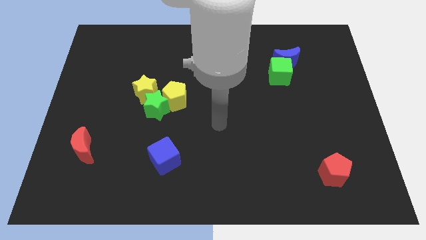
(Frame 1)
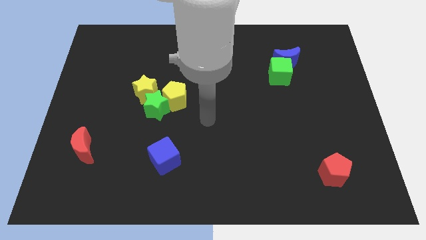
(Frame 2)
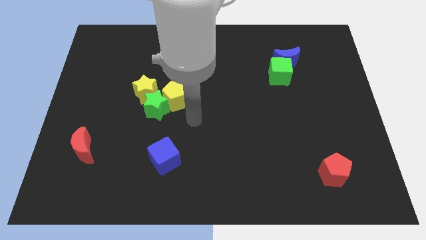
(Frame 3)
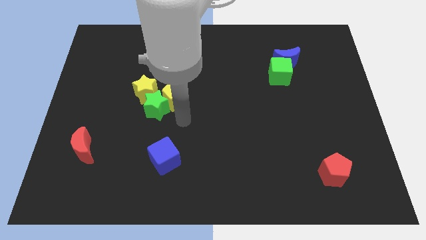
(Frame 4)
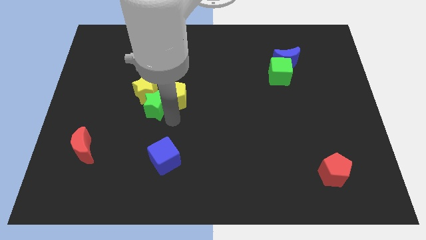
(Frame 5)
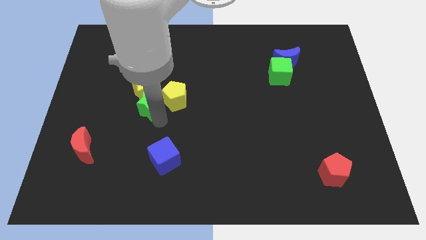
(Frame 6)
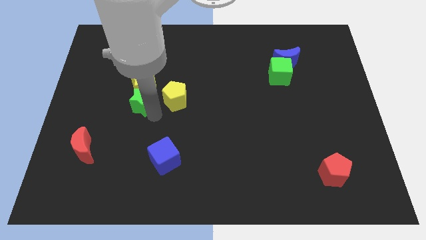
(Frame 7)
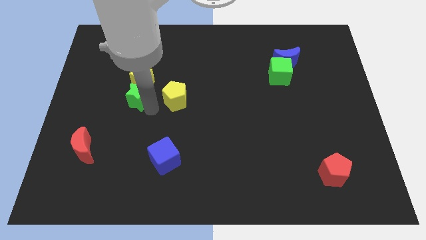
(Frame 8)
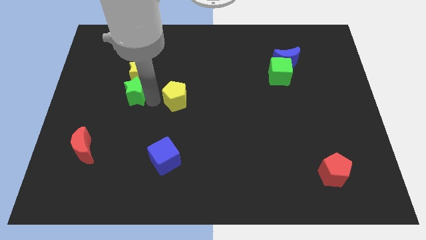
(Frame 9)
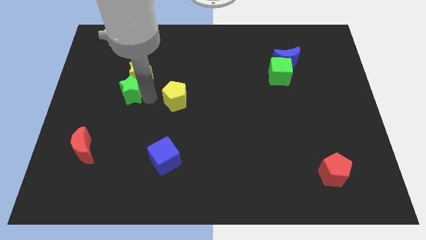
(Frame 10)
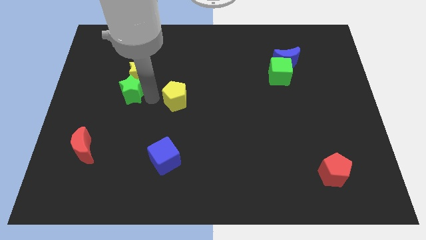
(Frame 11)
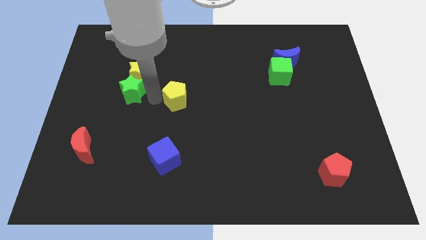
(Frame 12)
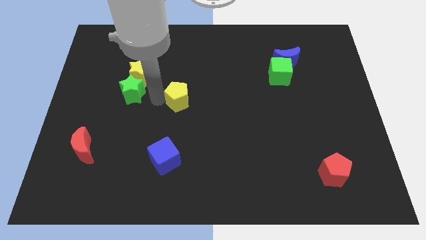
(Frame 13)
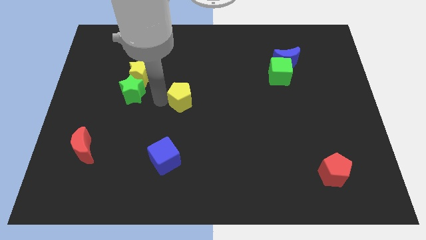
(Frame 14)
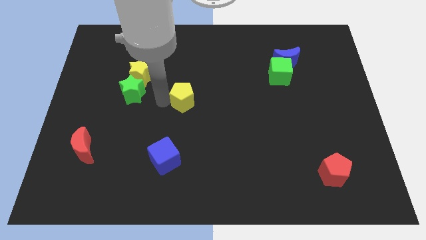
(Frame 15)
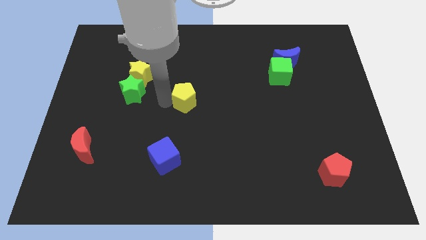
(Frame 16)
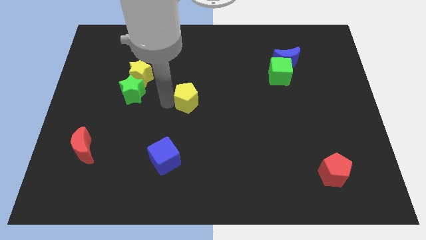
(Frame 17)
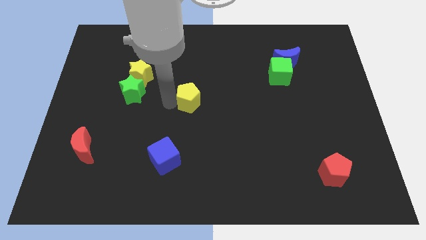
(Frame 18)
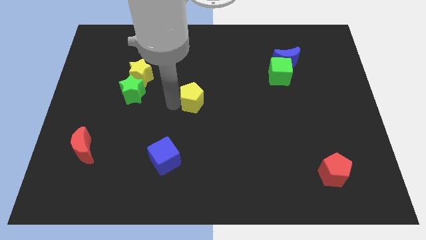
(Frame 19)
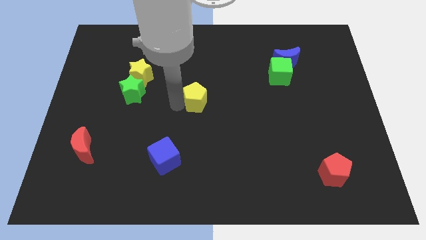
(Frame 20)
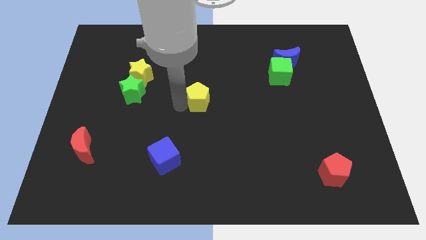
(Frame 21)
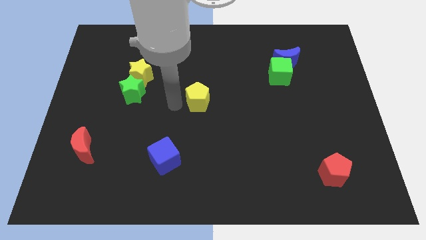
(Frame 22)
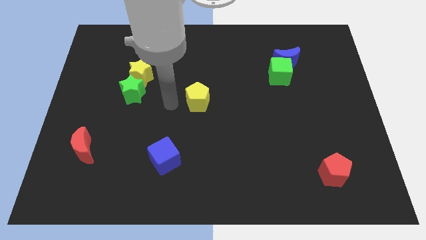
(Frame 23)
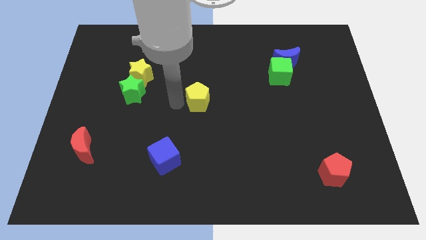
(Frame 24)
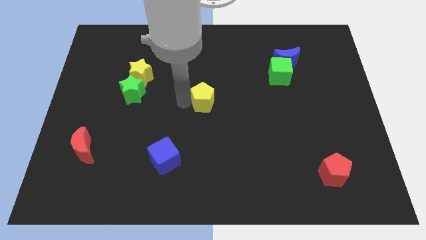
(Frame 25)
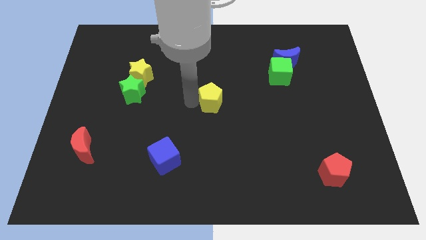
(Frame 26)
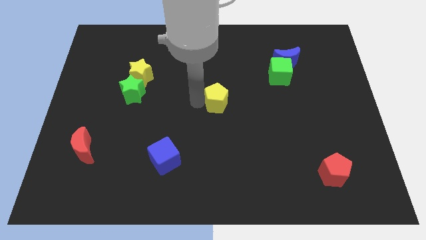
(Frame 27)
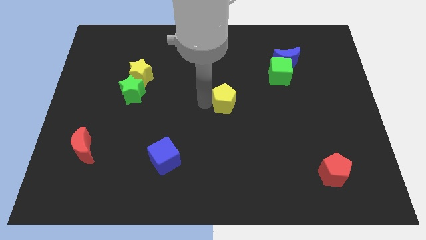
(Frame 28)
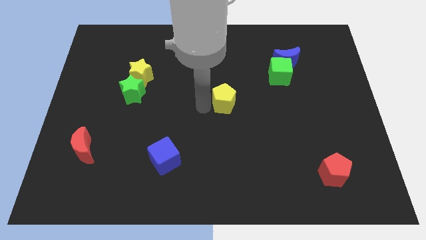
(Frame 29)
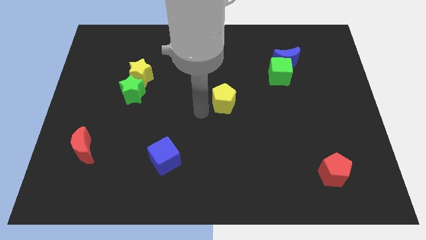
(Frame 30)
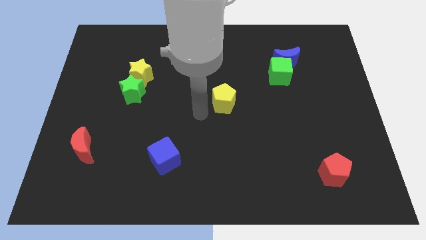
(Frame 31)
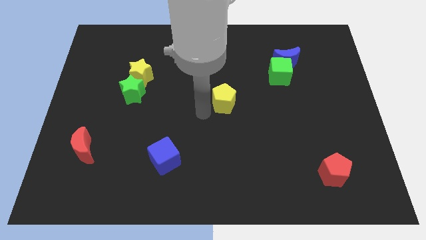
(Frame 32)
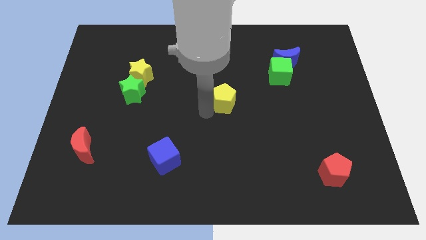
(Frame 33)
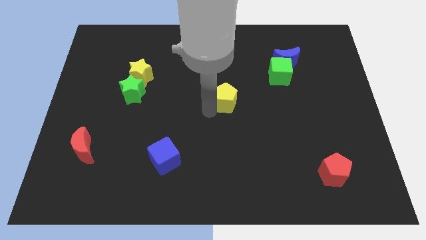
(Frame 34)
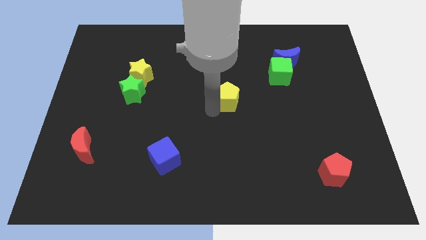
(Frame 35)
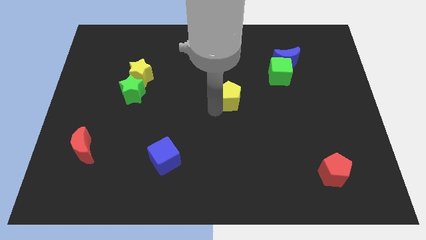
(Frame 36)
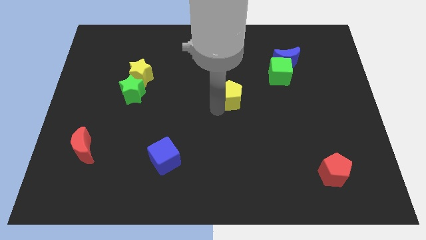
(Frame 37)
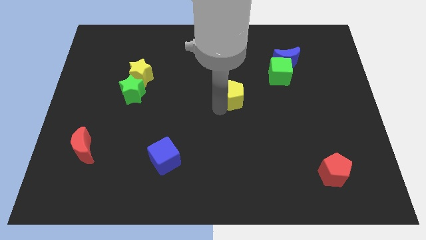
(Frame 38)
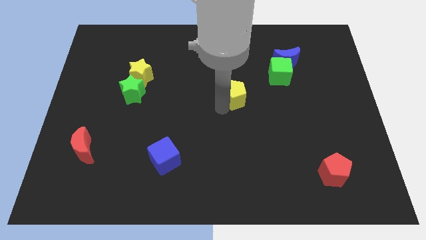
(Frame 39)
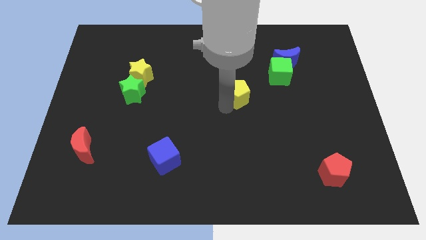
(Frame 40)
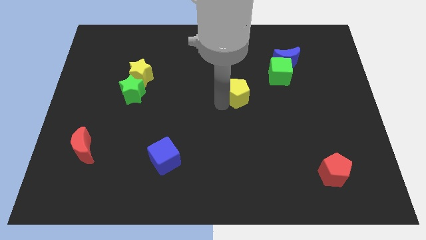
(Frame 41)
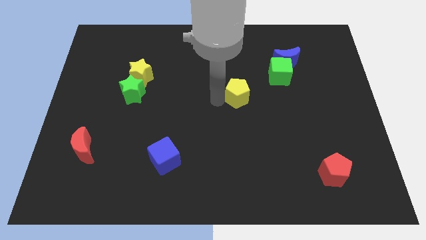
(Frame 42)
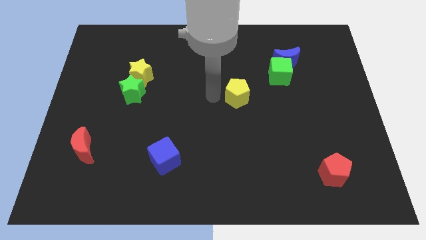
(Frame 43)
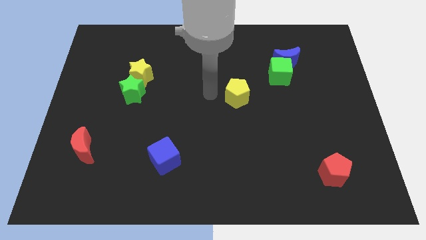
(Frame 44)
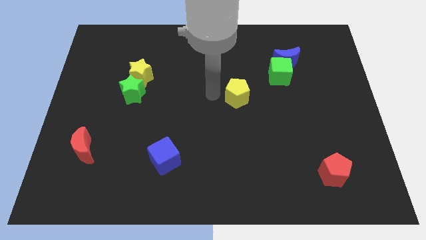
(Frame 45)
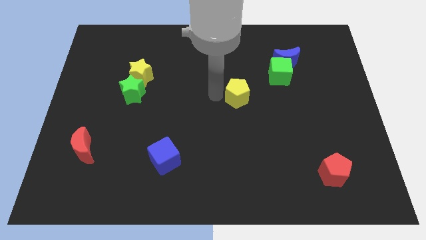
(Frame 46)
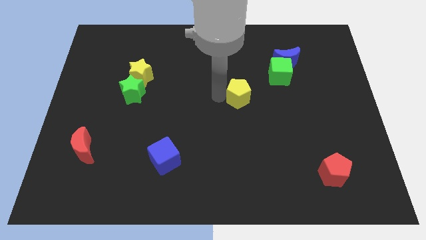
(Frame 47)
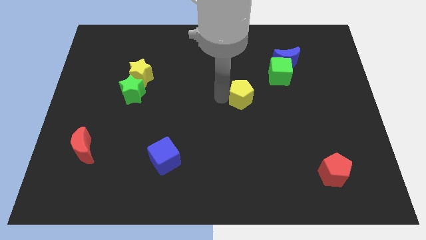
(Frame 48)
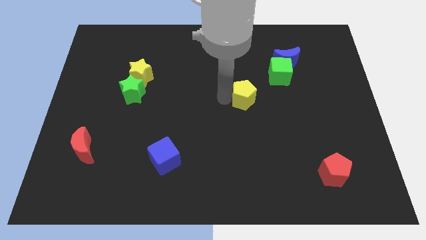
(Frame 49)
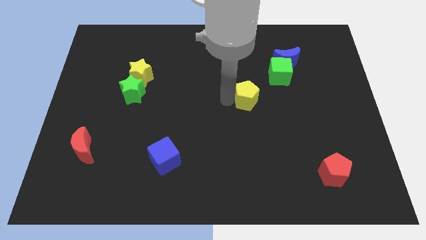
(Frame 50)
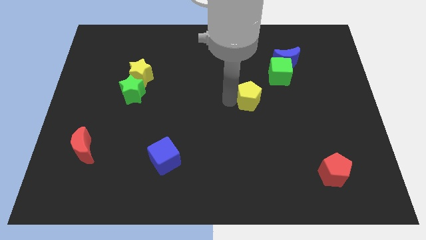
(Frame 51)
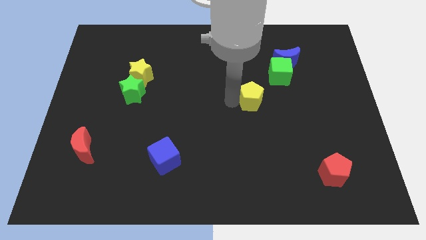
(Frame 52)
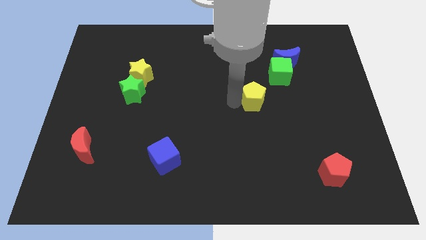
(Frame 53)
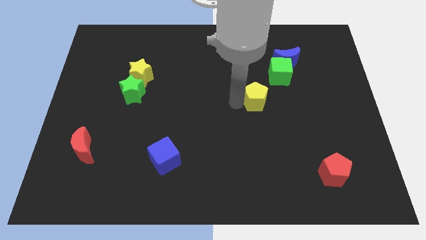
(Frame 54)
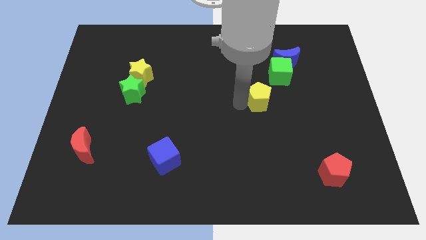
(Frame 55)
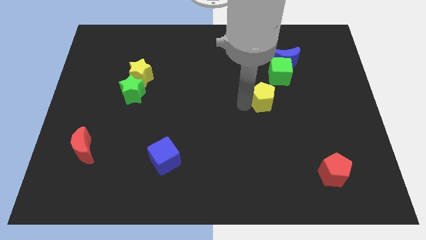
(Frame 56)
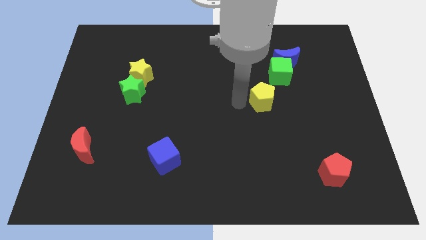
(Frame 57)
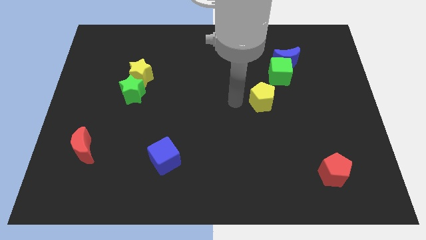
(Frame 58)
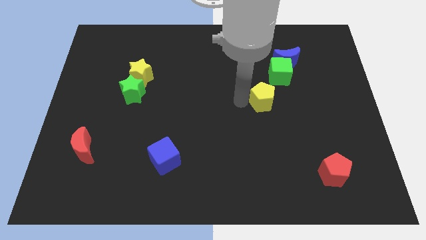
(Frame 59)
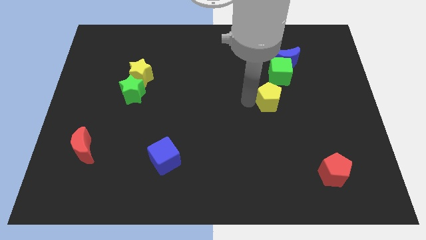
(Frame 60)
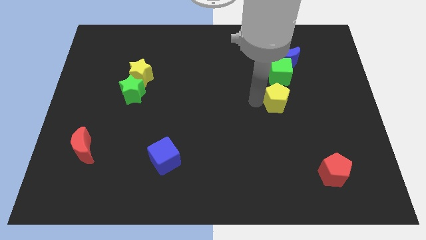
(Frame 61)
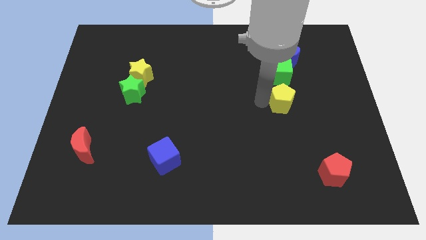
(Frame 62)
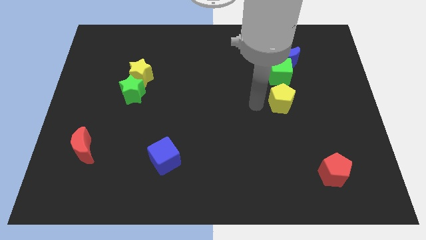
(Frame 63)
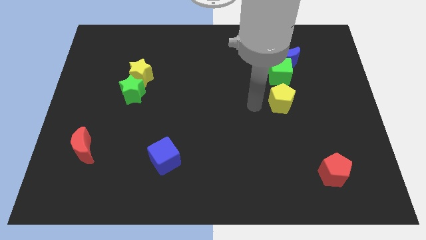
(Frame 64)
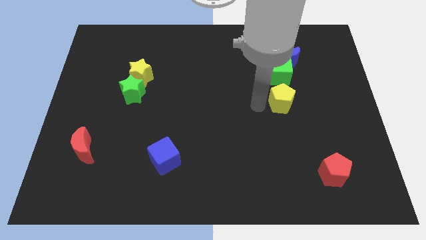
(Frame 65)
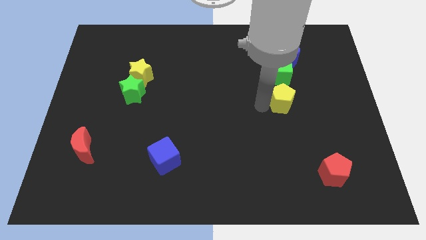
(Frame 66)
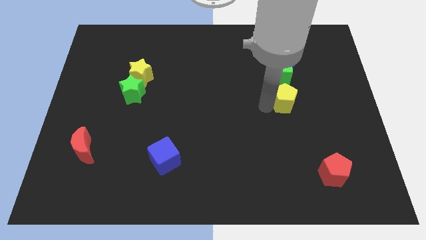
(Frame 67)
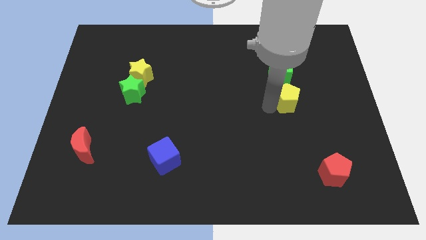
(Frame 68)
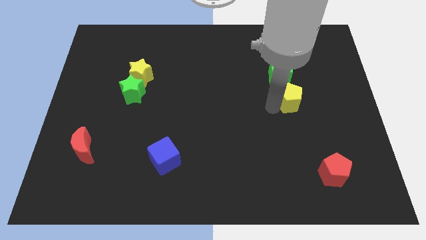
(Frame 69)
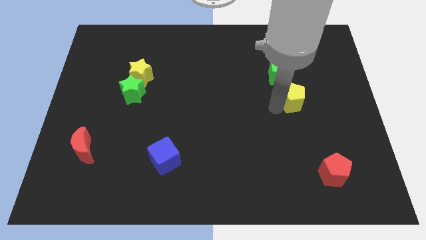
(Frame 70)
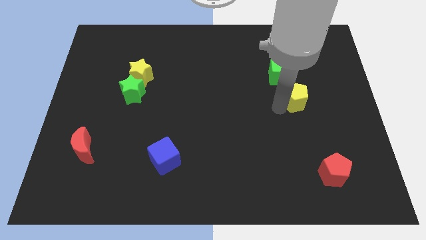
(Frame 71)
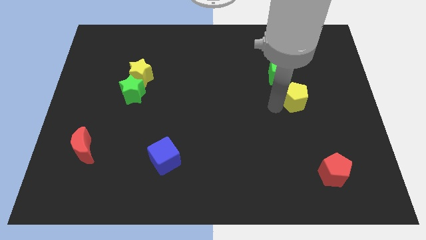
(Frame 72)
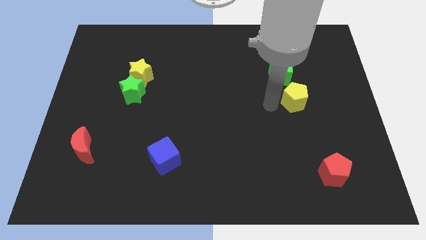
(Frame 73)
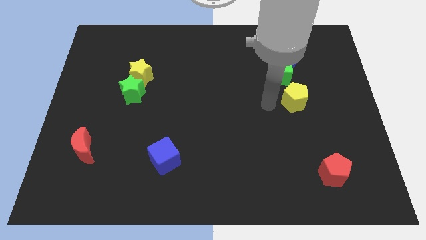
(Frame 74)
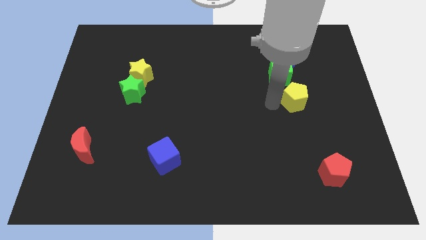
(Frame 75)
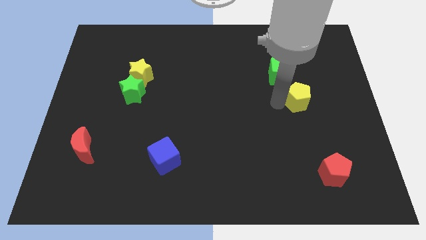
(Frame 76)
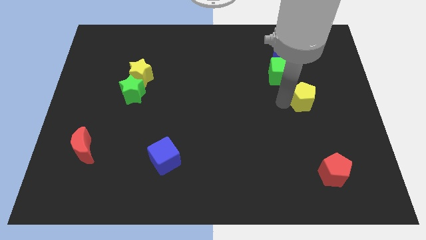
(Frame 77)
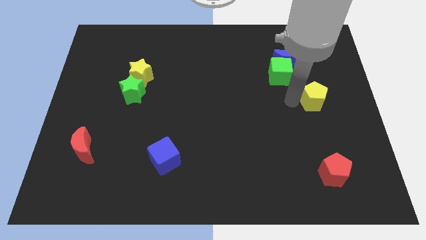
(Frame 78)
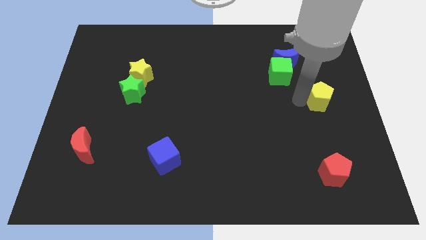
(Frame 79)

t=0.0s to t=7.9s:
push the yellow pentagon to the right side of the board
